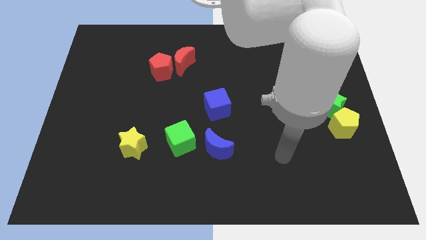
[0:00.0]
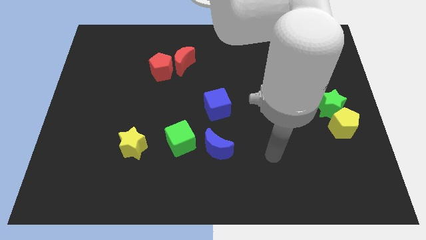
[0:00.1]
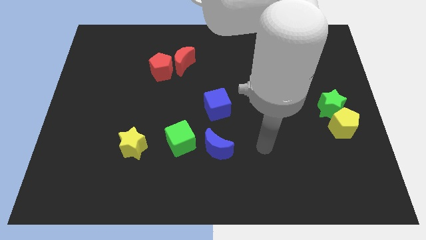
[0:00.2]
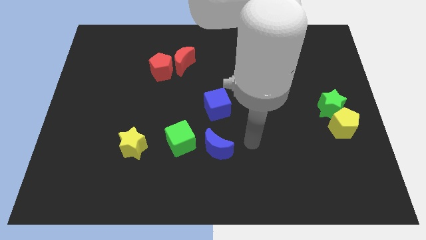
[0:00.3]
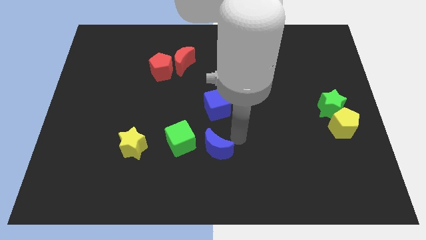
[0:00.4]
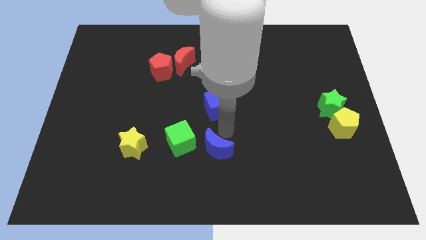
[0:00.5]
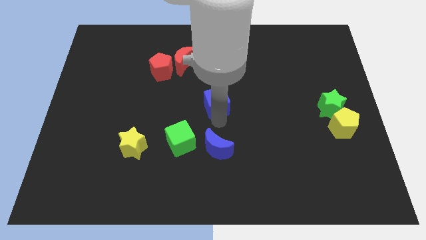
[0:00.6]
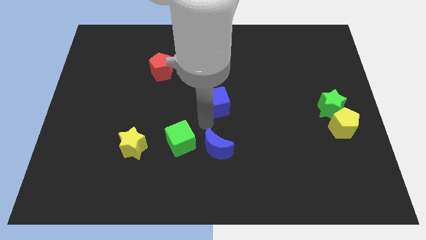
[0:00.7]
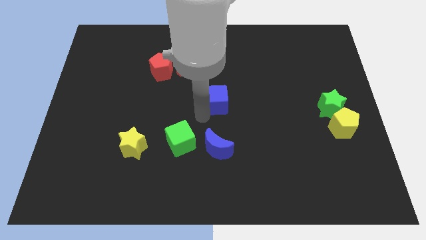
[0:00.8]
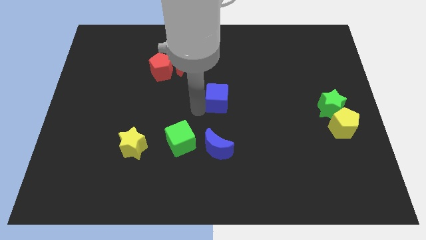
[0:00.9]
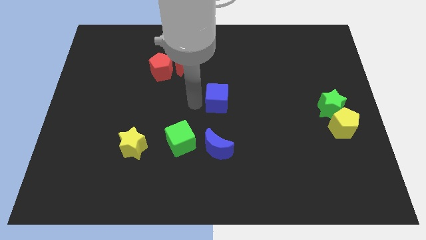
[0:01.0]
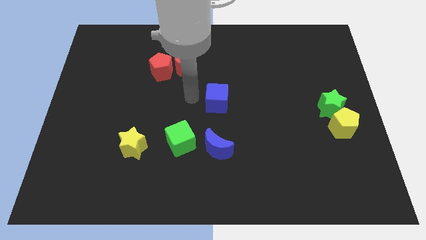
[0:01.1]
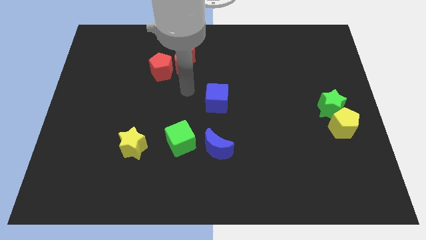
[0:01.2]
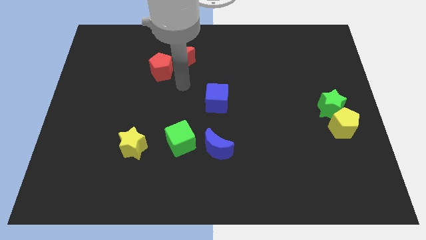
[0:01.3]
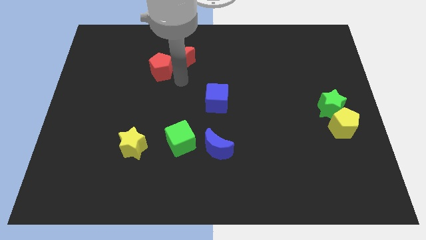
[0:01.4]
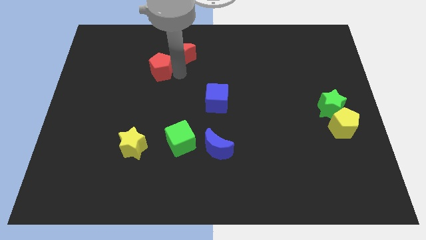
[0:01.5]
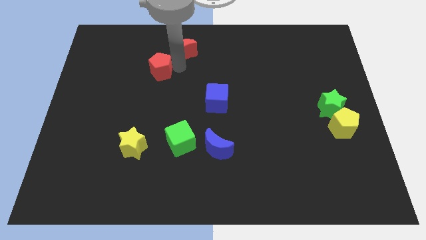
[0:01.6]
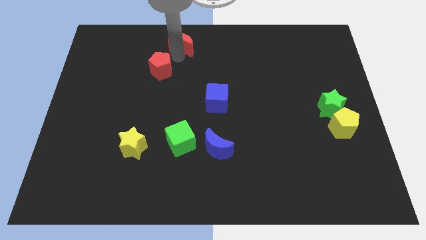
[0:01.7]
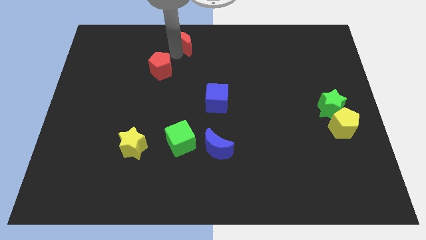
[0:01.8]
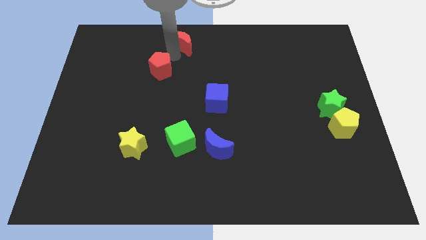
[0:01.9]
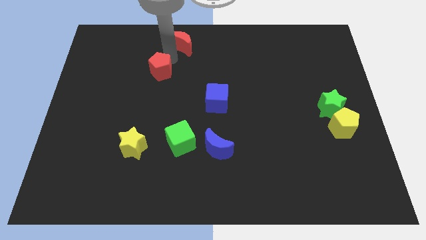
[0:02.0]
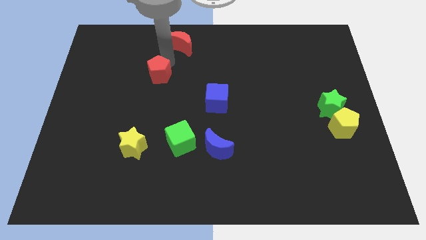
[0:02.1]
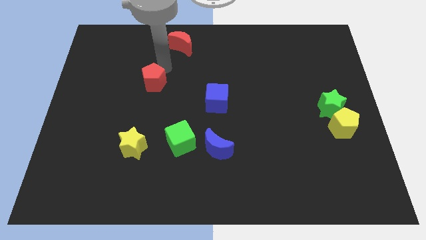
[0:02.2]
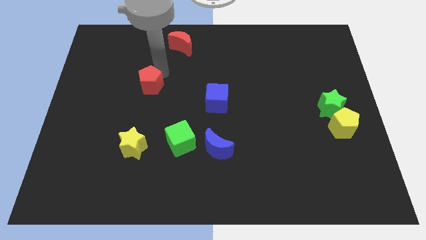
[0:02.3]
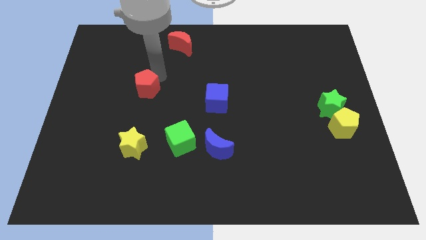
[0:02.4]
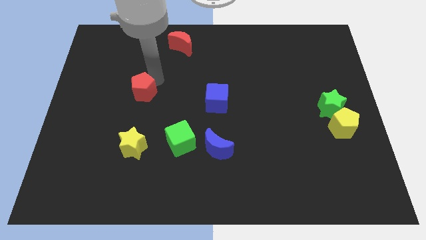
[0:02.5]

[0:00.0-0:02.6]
move the red pentagon downwards and then to the left somewhat

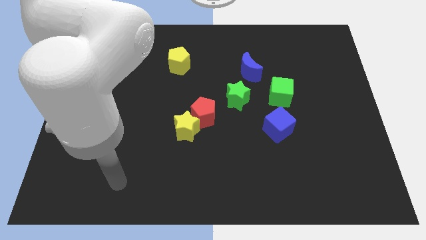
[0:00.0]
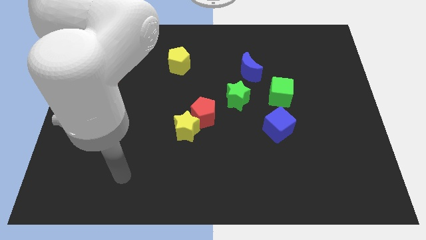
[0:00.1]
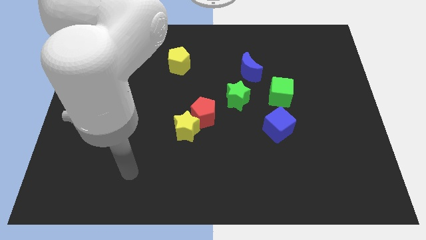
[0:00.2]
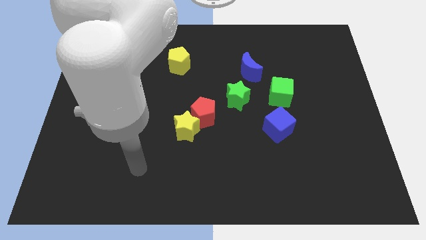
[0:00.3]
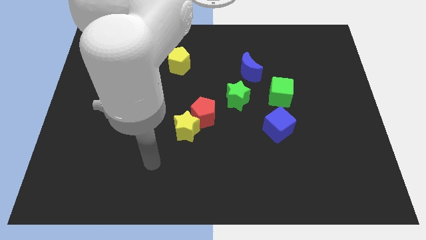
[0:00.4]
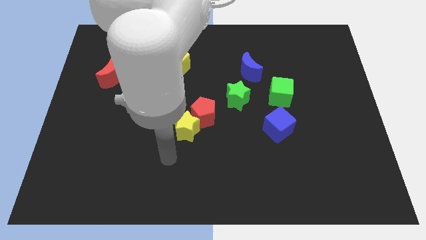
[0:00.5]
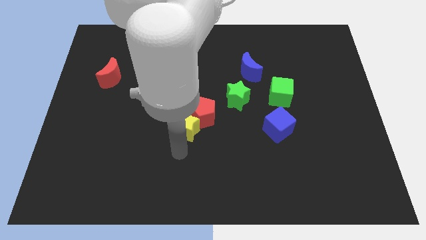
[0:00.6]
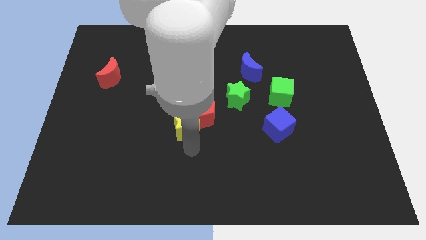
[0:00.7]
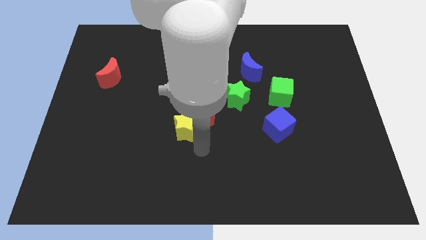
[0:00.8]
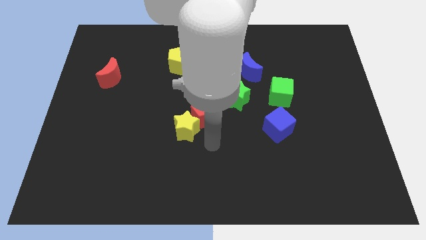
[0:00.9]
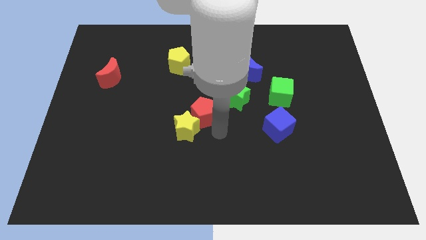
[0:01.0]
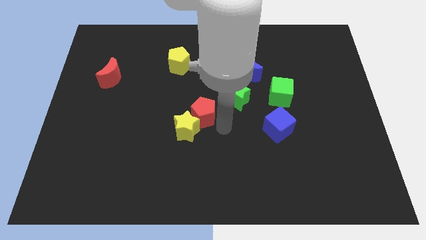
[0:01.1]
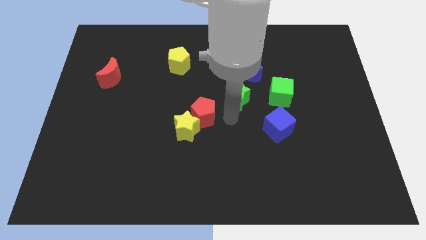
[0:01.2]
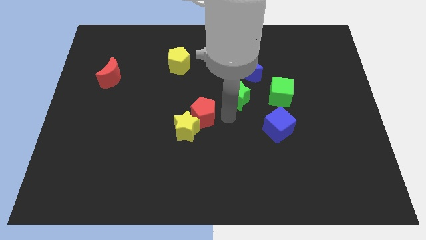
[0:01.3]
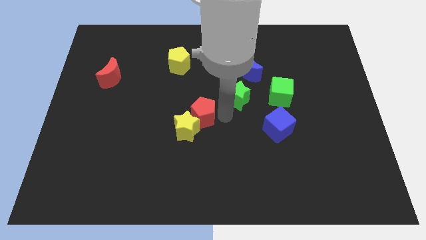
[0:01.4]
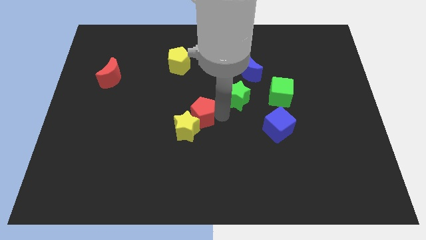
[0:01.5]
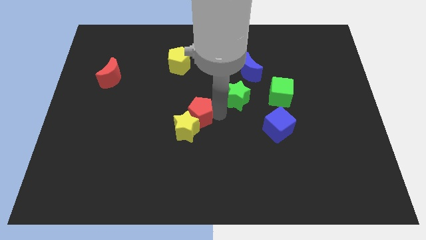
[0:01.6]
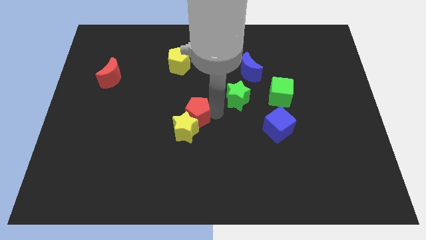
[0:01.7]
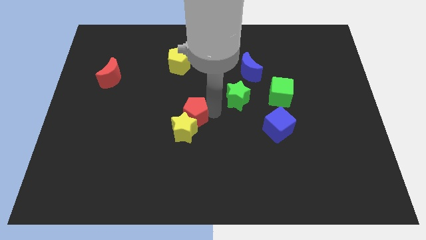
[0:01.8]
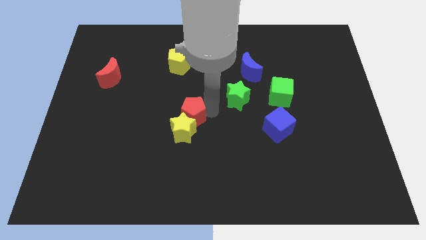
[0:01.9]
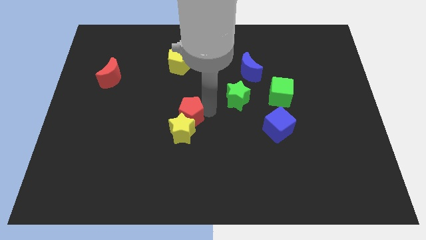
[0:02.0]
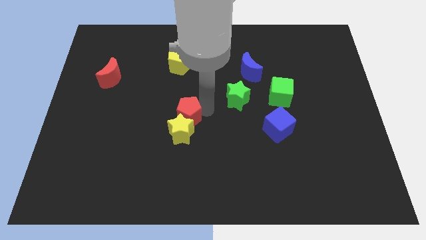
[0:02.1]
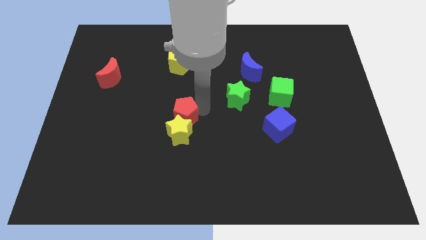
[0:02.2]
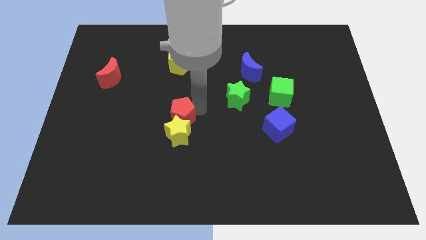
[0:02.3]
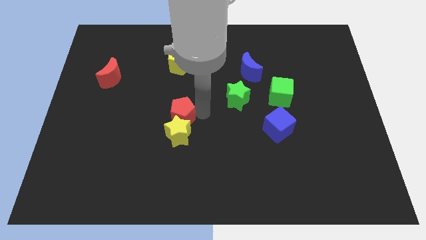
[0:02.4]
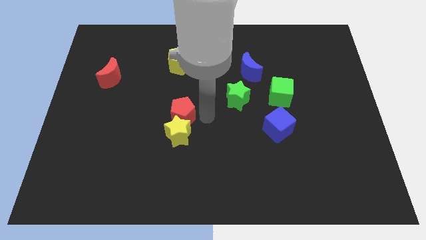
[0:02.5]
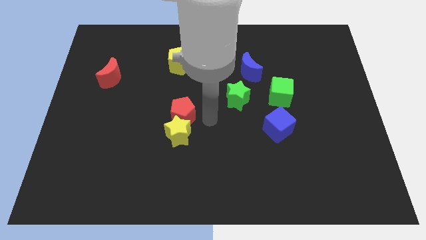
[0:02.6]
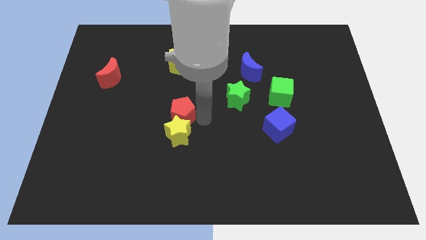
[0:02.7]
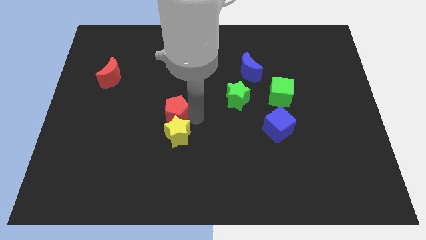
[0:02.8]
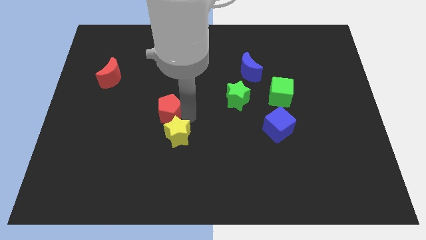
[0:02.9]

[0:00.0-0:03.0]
slide the red pentagon a little to the left

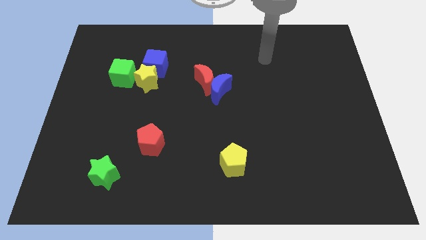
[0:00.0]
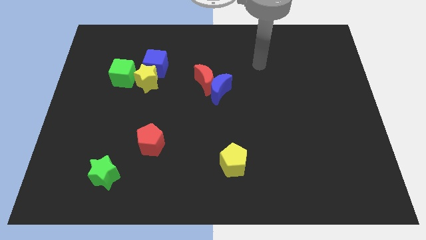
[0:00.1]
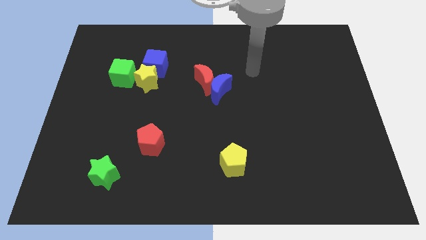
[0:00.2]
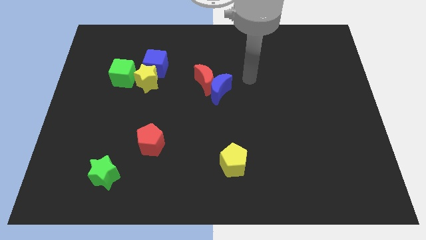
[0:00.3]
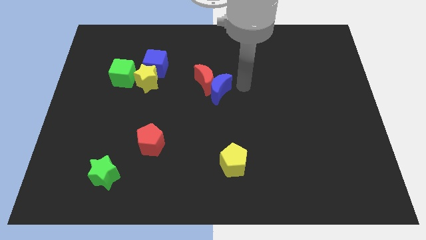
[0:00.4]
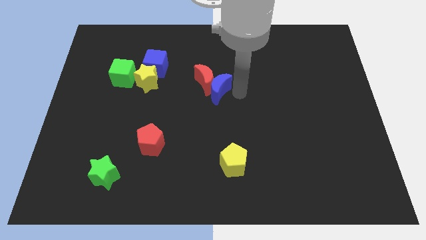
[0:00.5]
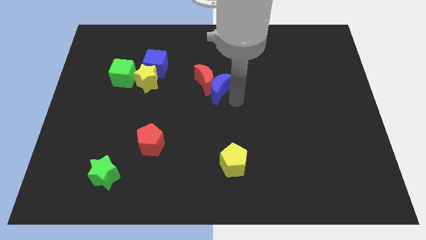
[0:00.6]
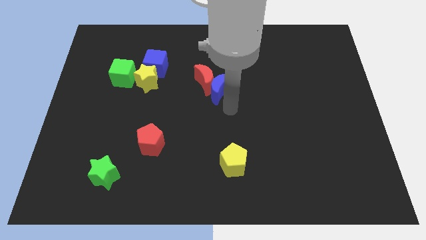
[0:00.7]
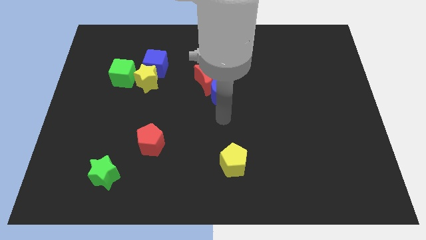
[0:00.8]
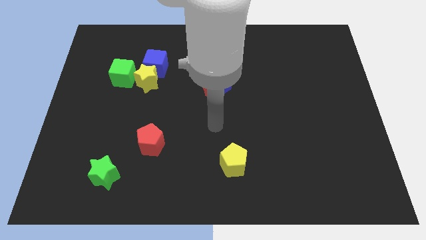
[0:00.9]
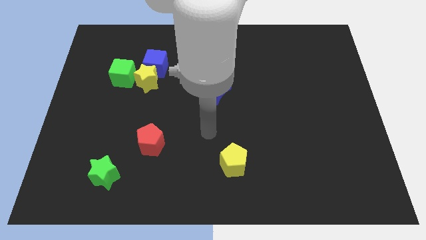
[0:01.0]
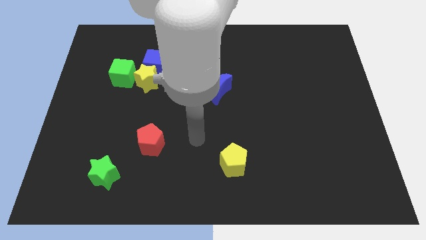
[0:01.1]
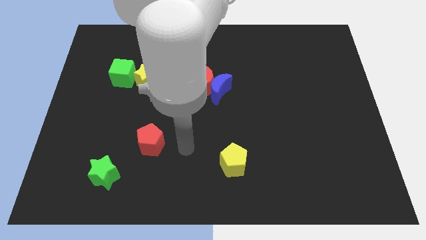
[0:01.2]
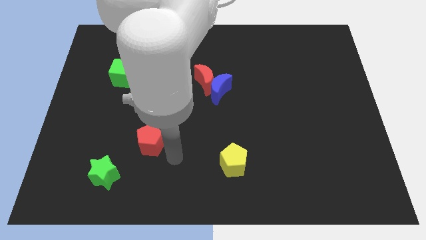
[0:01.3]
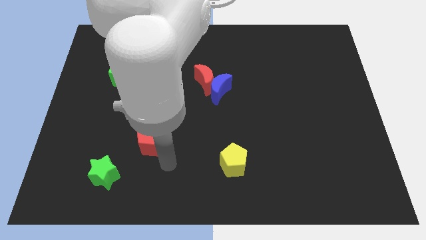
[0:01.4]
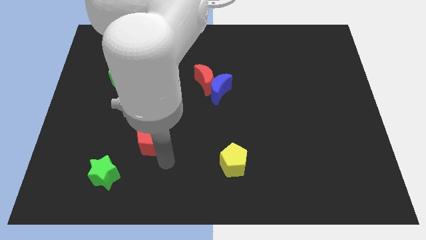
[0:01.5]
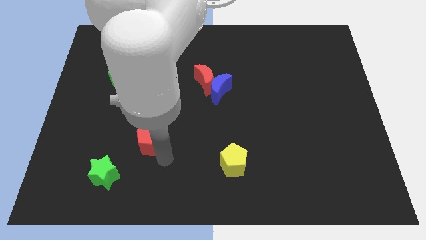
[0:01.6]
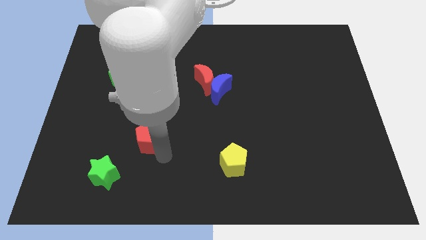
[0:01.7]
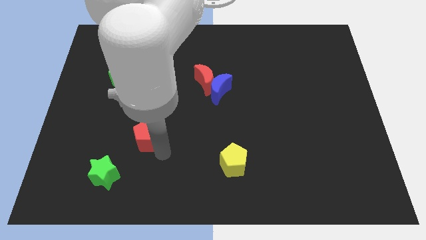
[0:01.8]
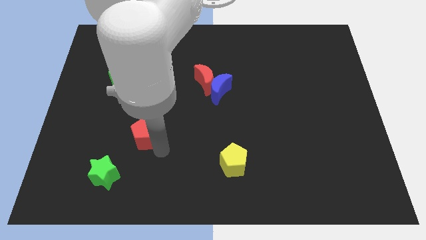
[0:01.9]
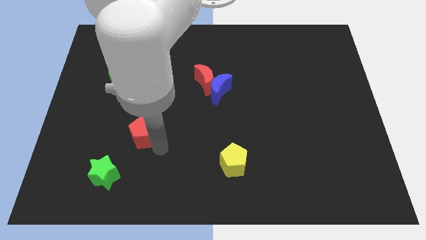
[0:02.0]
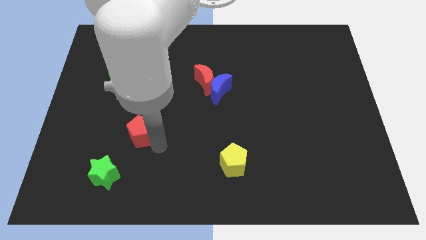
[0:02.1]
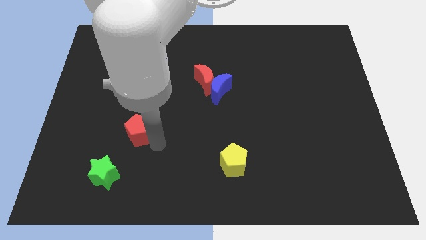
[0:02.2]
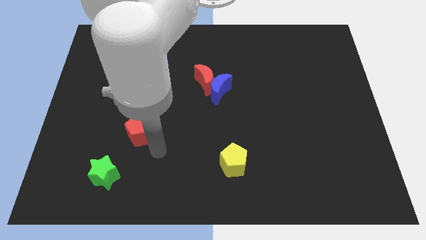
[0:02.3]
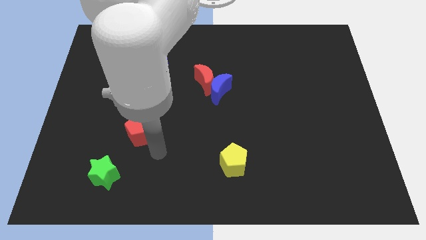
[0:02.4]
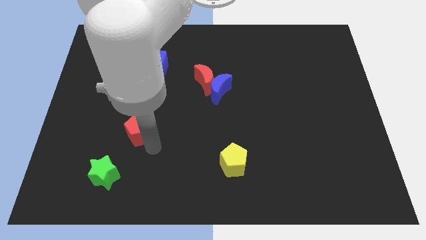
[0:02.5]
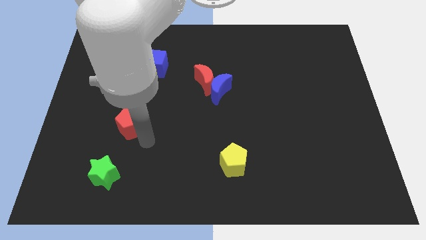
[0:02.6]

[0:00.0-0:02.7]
slide the red pentagon up and to the left diagonally slightly
